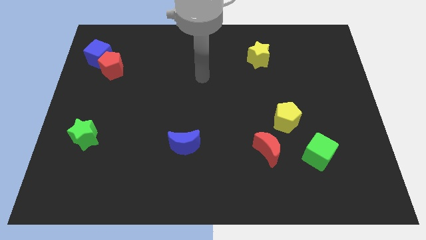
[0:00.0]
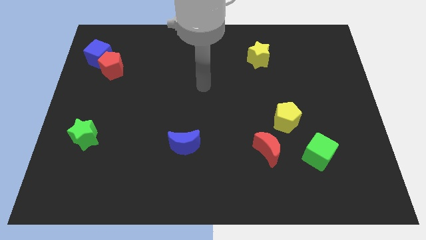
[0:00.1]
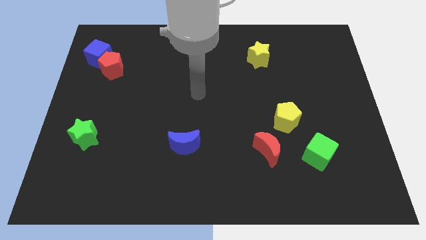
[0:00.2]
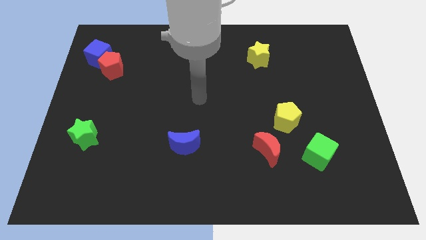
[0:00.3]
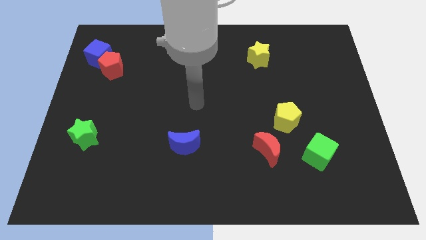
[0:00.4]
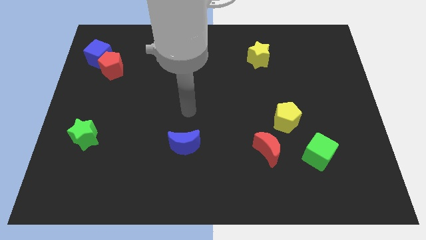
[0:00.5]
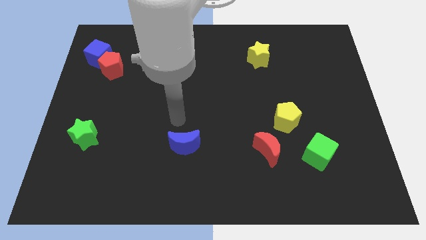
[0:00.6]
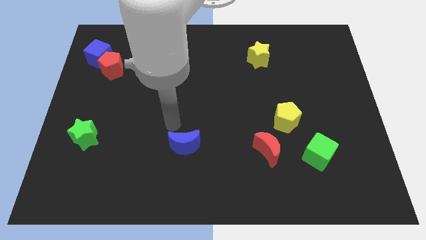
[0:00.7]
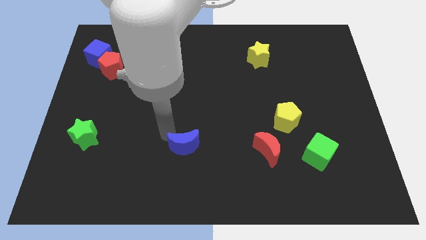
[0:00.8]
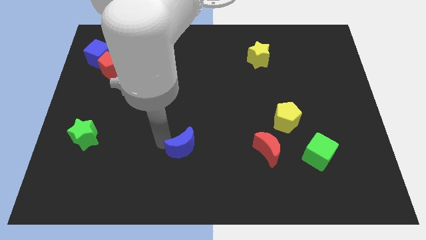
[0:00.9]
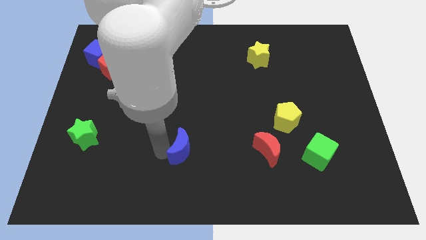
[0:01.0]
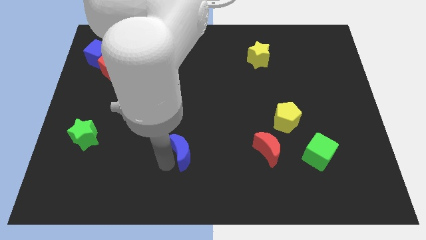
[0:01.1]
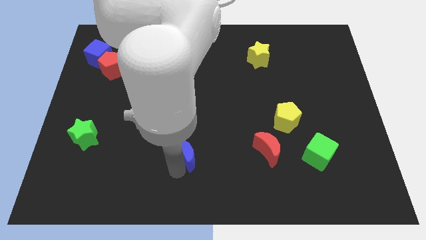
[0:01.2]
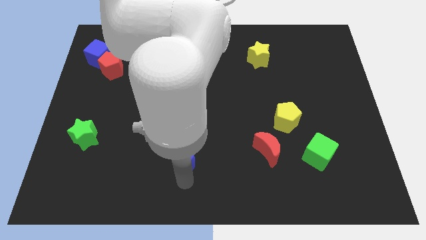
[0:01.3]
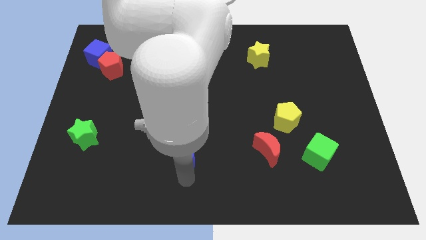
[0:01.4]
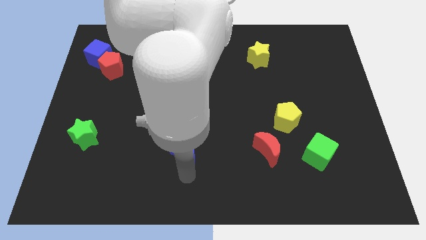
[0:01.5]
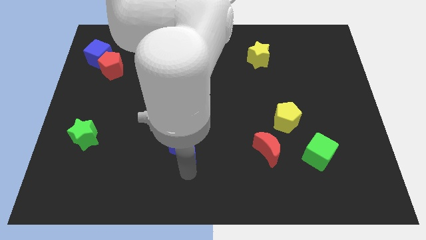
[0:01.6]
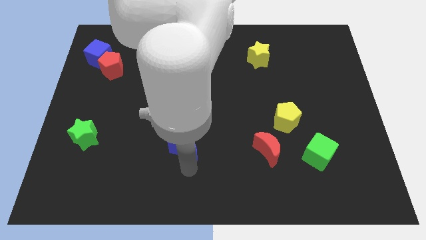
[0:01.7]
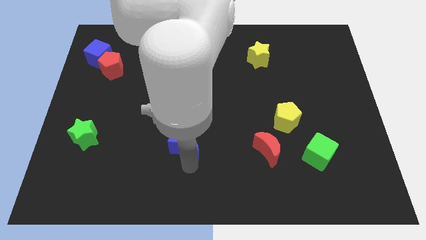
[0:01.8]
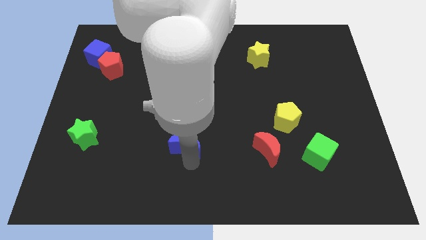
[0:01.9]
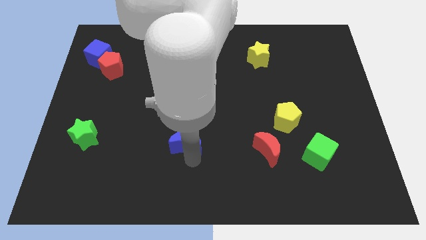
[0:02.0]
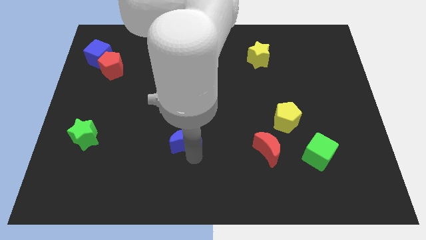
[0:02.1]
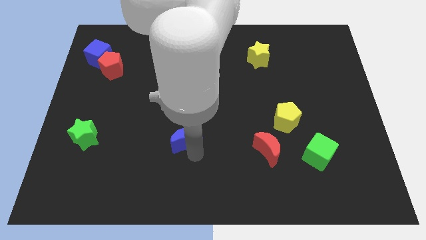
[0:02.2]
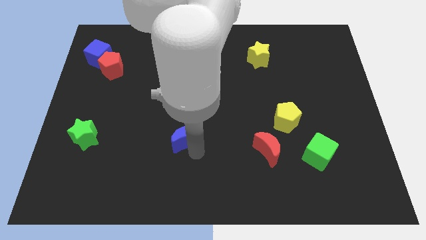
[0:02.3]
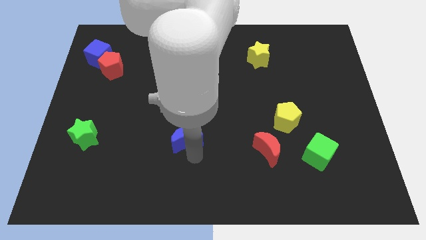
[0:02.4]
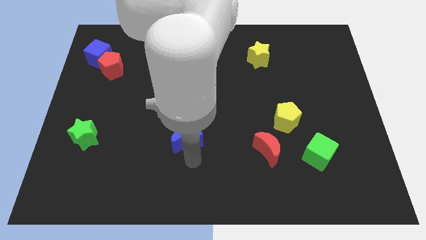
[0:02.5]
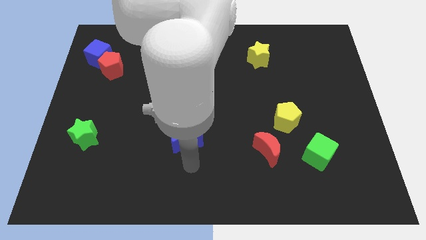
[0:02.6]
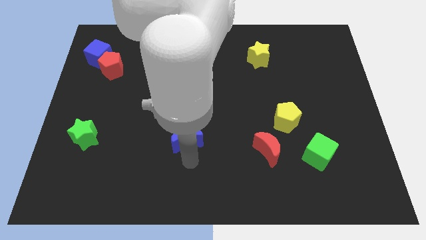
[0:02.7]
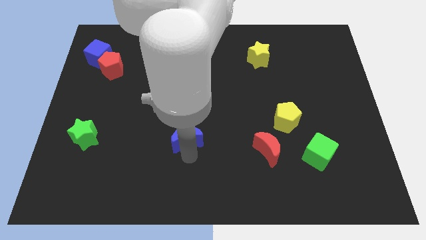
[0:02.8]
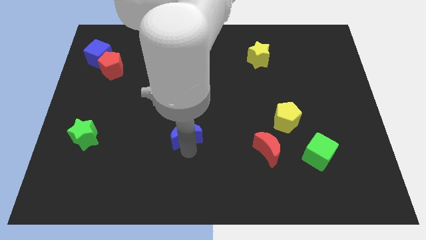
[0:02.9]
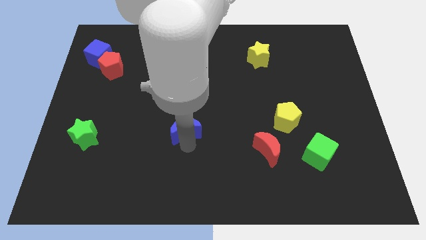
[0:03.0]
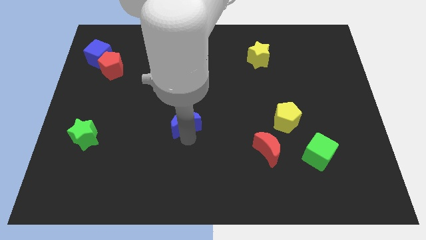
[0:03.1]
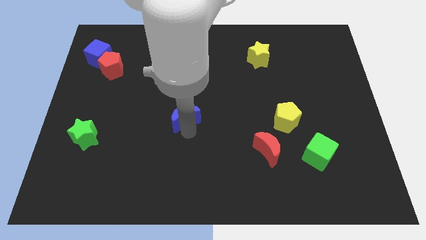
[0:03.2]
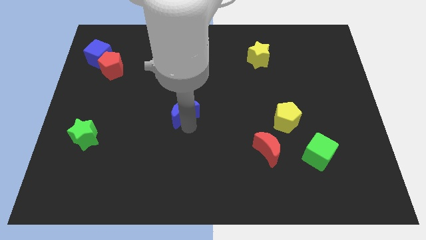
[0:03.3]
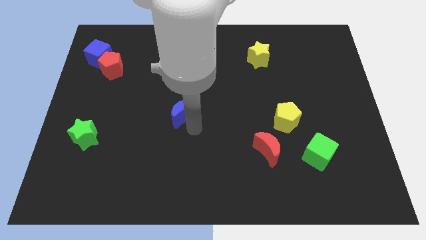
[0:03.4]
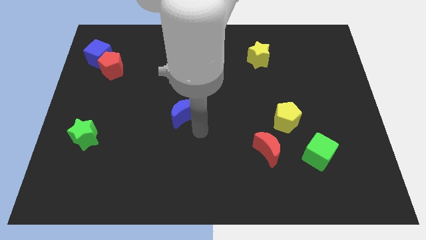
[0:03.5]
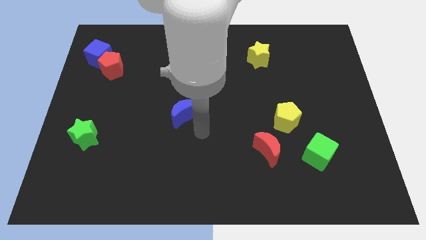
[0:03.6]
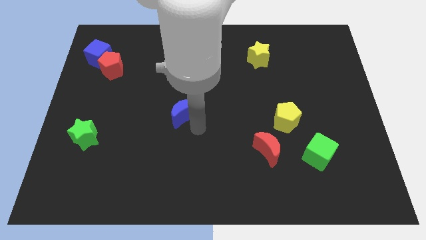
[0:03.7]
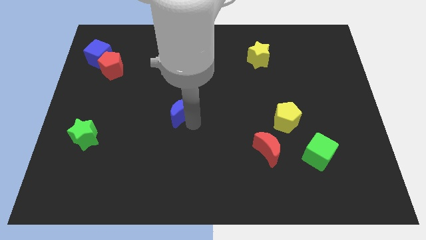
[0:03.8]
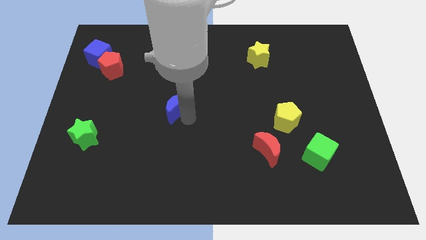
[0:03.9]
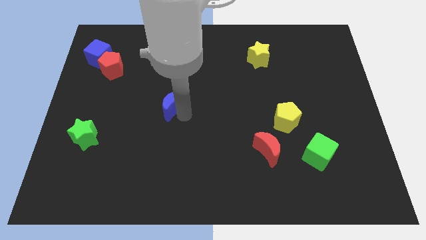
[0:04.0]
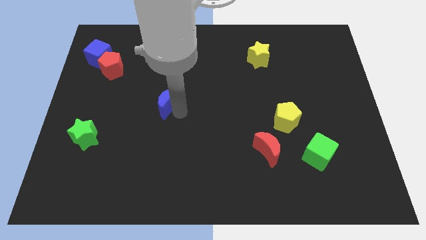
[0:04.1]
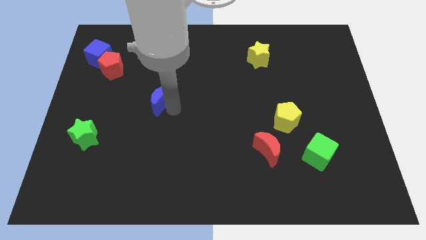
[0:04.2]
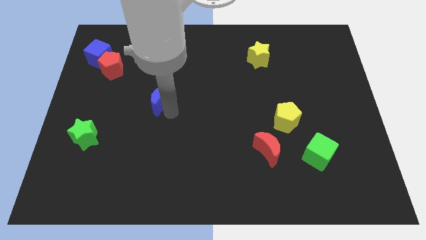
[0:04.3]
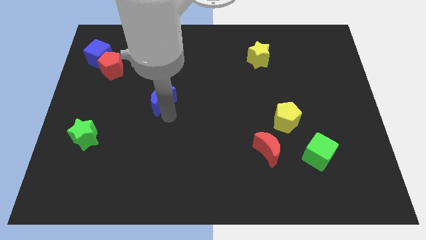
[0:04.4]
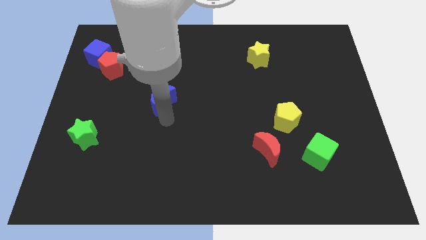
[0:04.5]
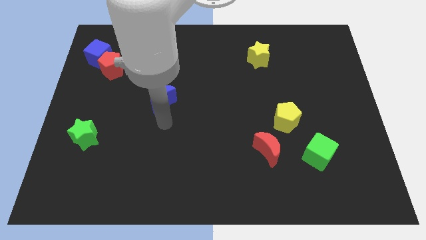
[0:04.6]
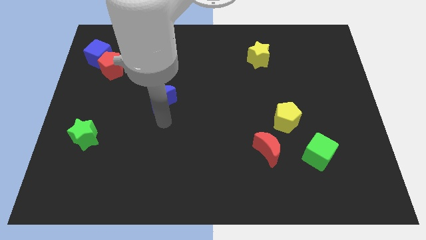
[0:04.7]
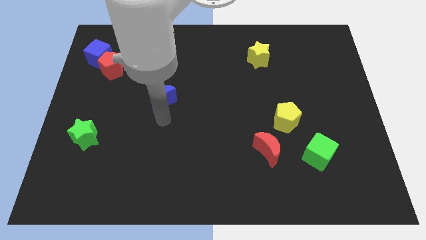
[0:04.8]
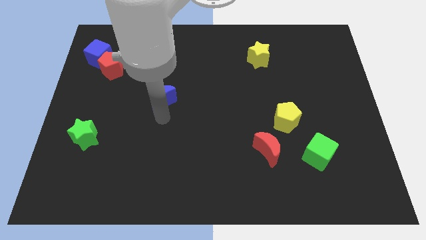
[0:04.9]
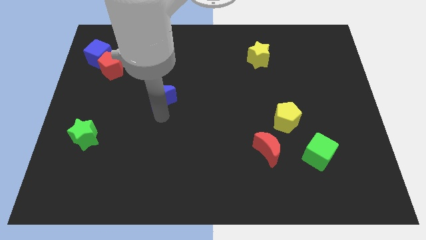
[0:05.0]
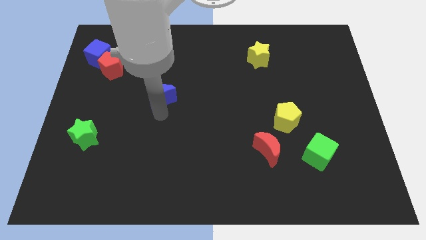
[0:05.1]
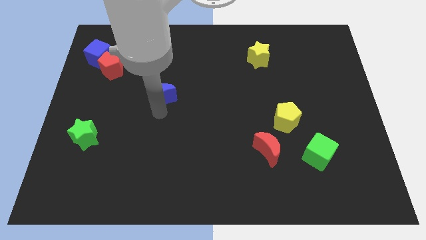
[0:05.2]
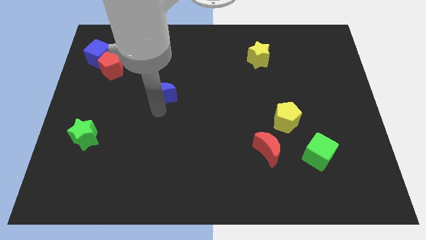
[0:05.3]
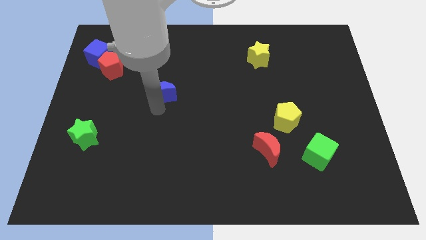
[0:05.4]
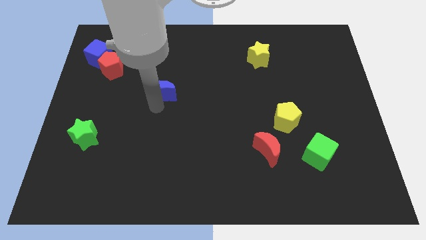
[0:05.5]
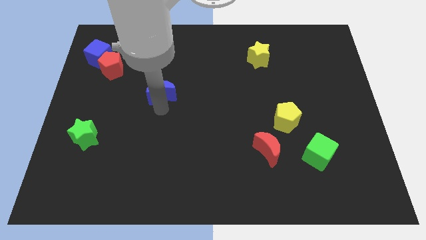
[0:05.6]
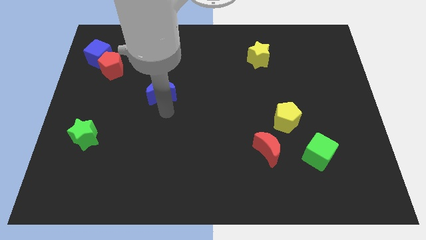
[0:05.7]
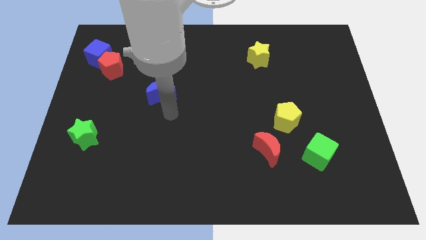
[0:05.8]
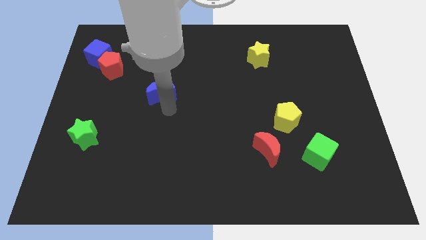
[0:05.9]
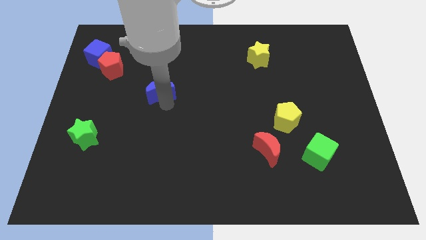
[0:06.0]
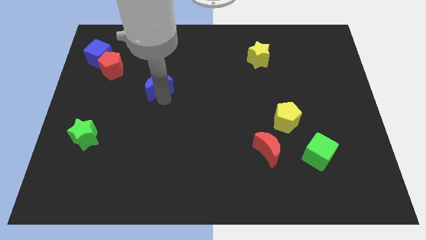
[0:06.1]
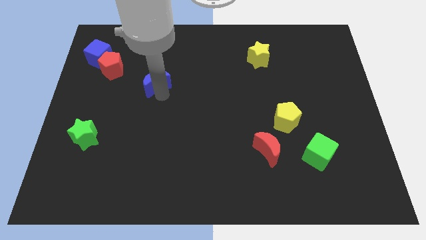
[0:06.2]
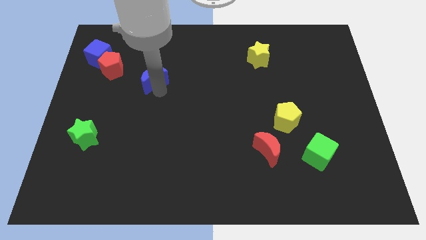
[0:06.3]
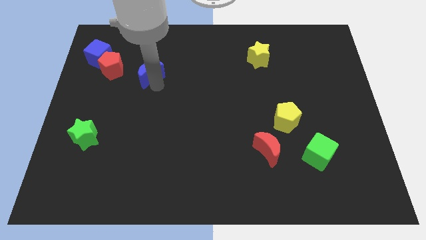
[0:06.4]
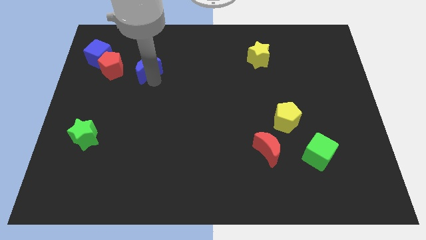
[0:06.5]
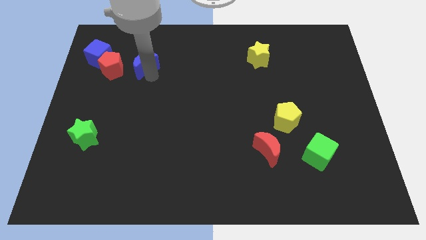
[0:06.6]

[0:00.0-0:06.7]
move the blue moon just right of the blue cube
